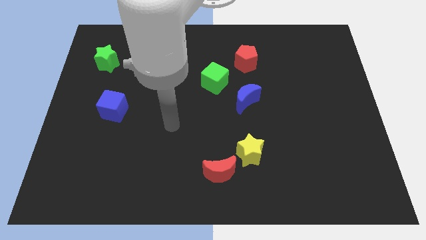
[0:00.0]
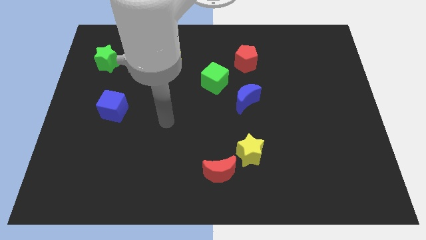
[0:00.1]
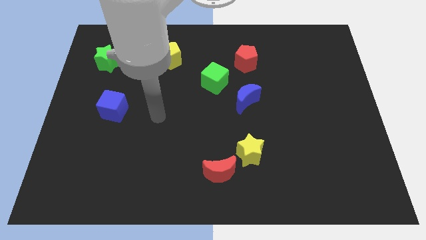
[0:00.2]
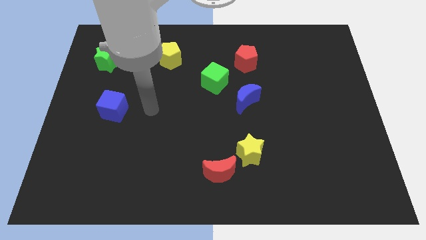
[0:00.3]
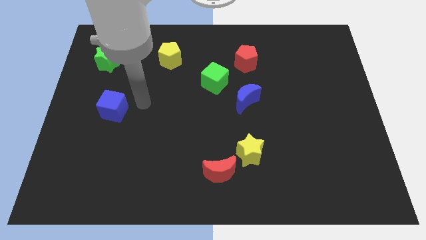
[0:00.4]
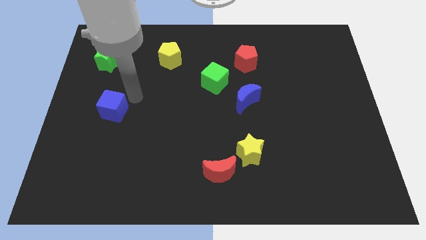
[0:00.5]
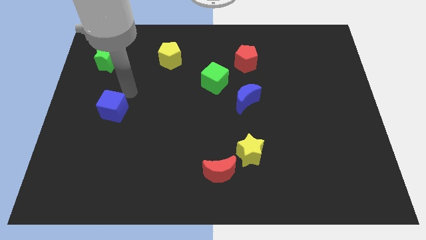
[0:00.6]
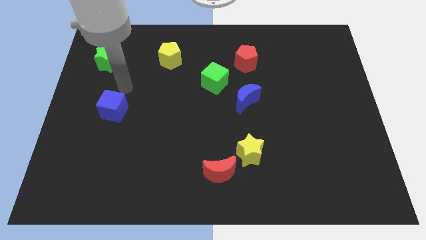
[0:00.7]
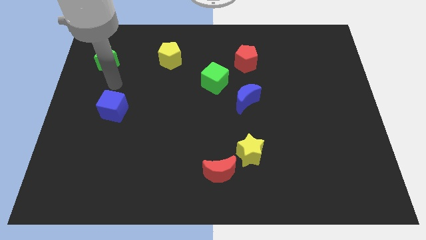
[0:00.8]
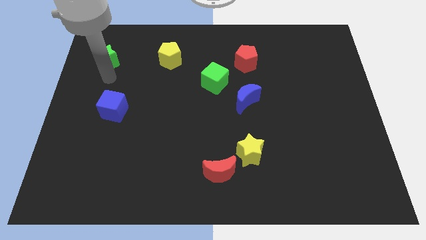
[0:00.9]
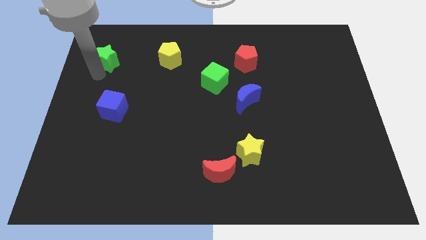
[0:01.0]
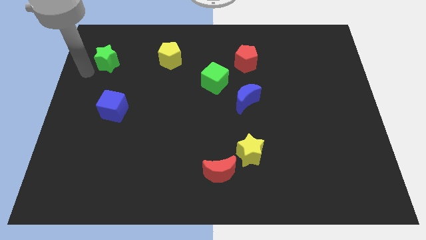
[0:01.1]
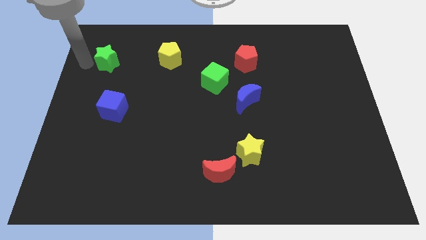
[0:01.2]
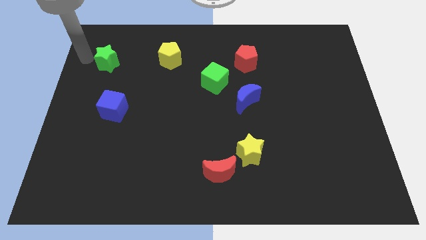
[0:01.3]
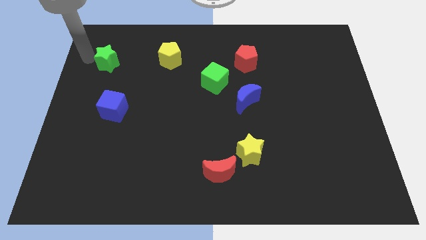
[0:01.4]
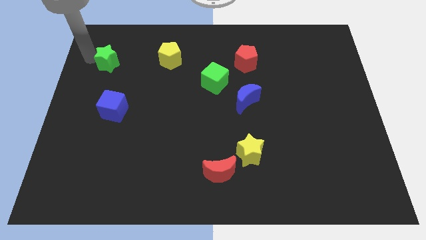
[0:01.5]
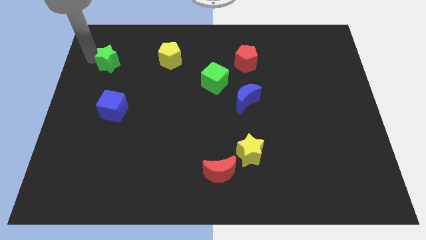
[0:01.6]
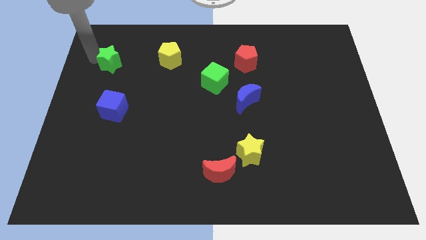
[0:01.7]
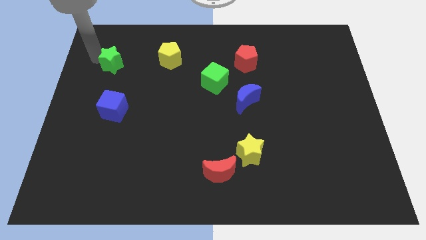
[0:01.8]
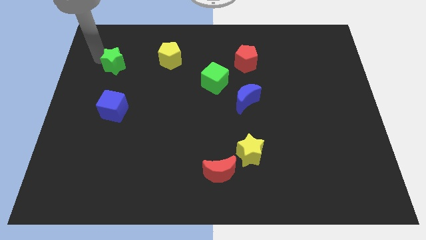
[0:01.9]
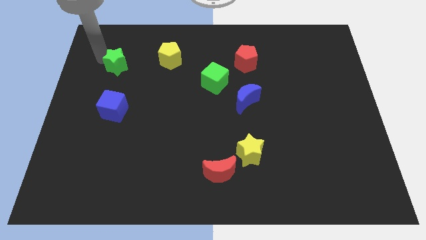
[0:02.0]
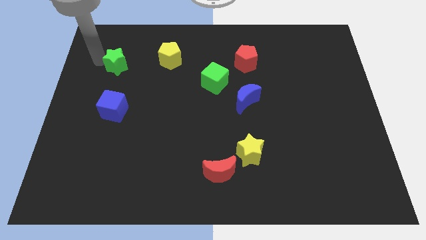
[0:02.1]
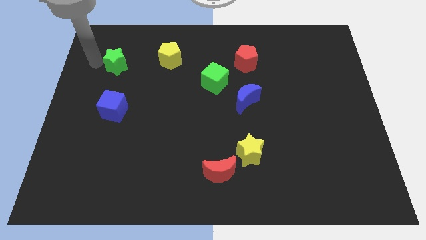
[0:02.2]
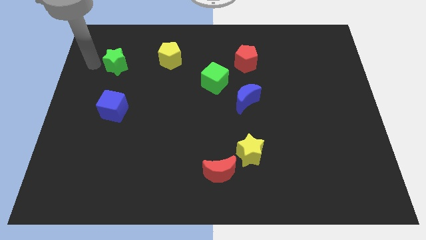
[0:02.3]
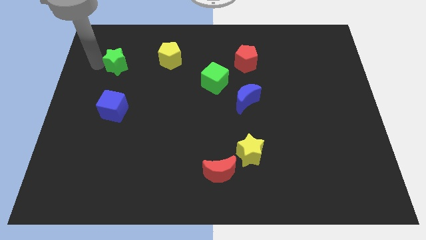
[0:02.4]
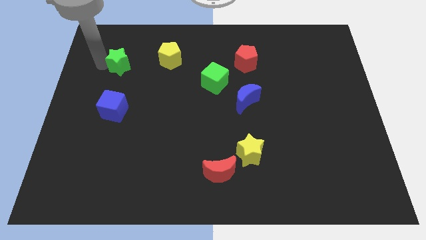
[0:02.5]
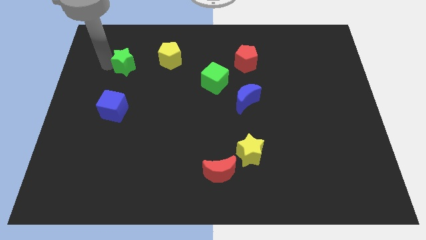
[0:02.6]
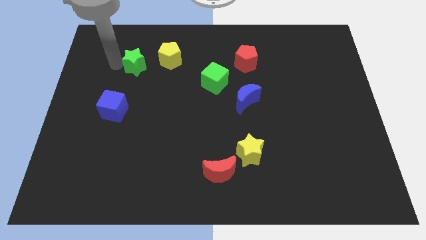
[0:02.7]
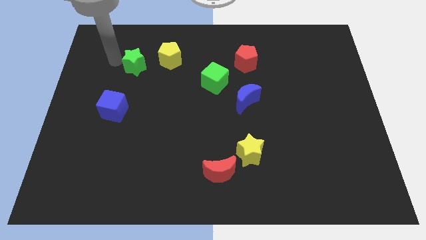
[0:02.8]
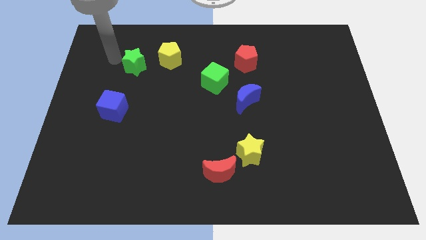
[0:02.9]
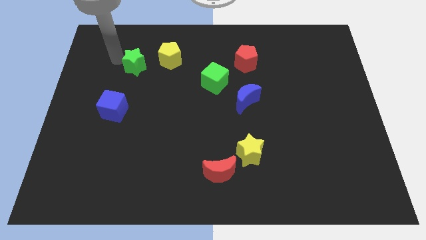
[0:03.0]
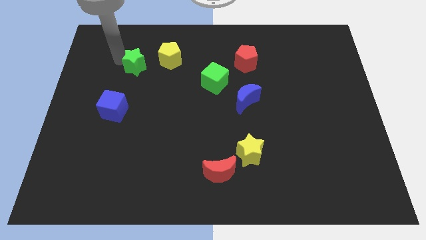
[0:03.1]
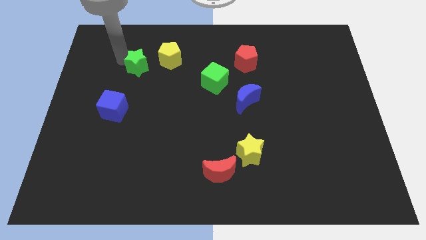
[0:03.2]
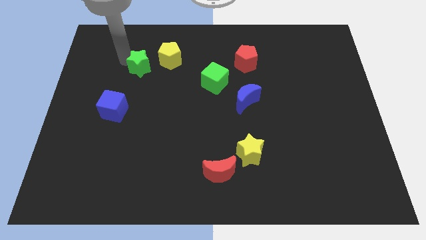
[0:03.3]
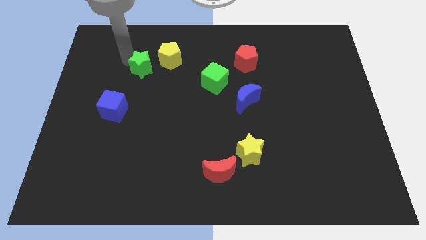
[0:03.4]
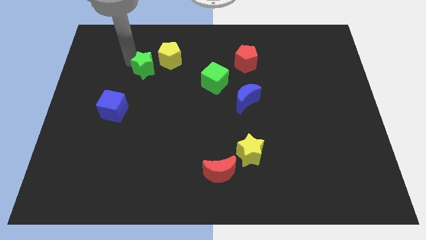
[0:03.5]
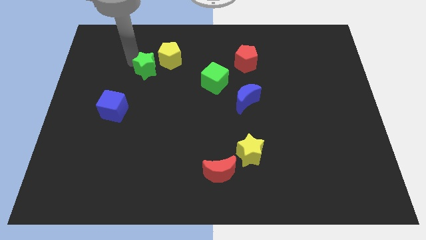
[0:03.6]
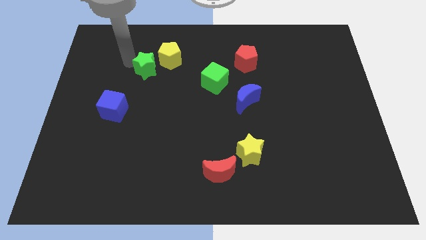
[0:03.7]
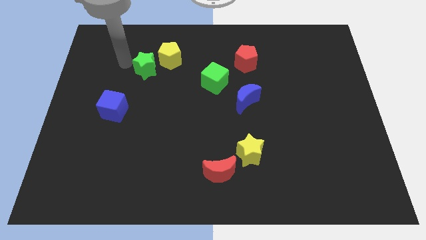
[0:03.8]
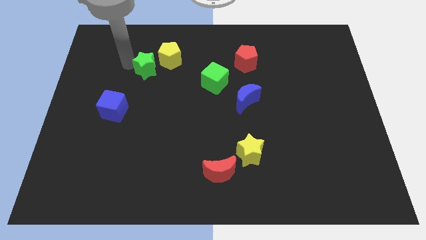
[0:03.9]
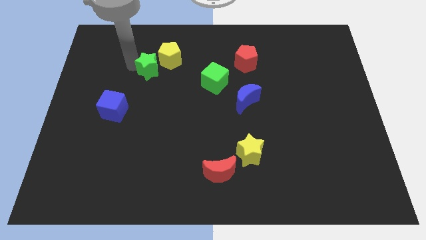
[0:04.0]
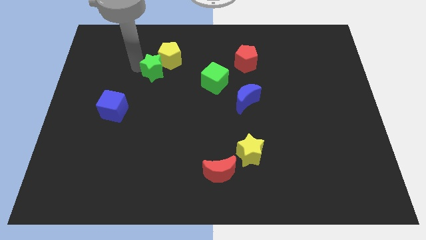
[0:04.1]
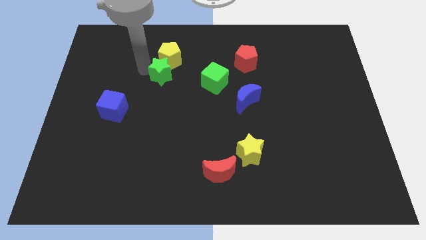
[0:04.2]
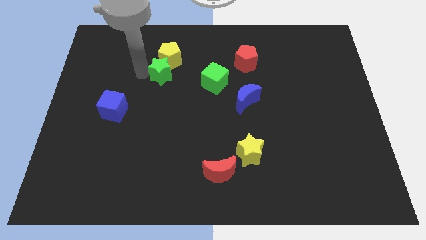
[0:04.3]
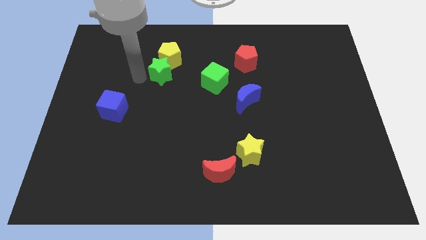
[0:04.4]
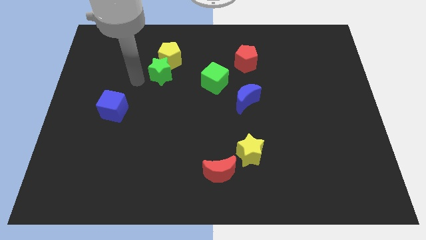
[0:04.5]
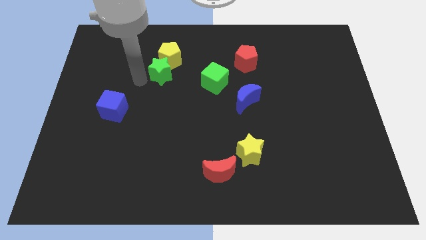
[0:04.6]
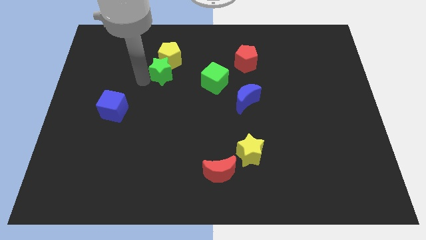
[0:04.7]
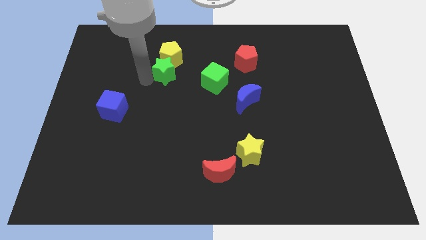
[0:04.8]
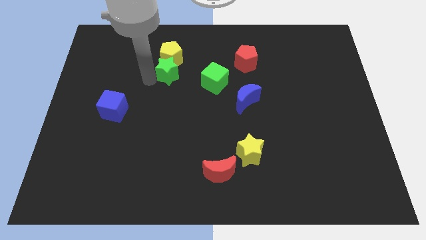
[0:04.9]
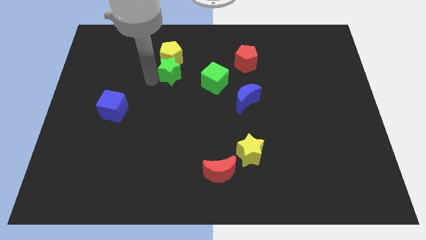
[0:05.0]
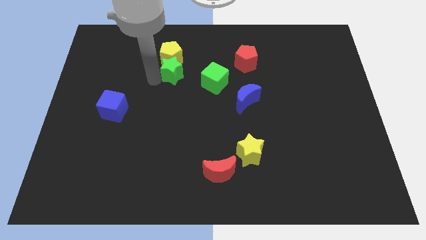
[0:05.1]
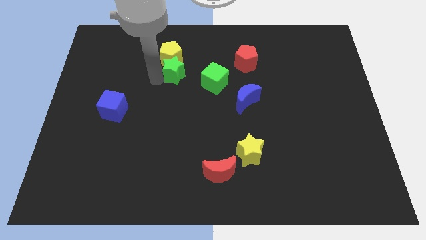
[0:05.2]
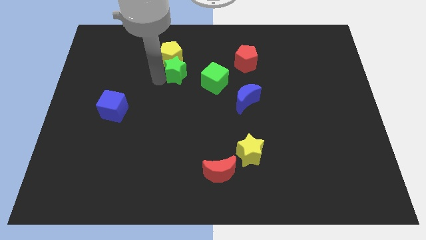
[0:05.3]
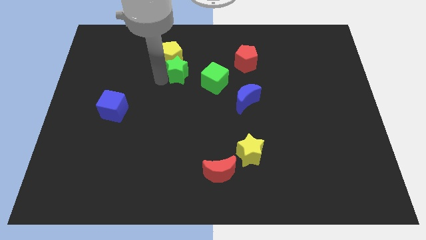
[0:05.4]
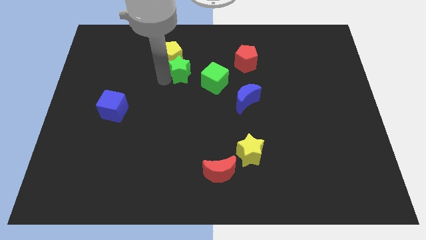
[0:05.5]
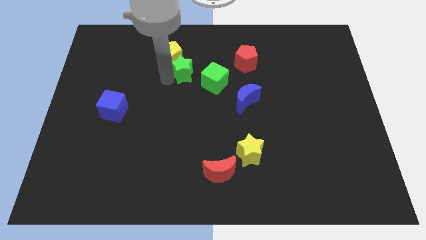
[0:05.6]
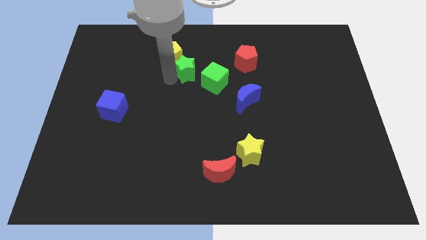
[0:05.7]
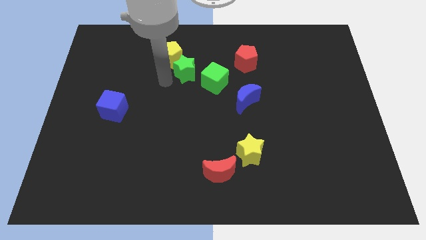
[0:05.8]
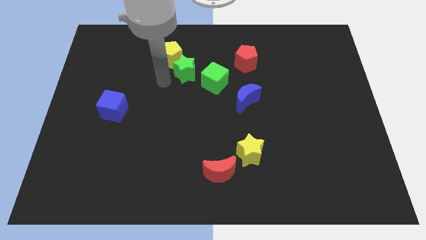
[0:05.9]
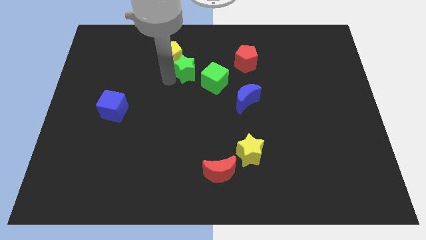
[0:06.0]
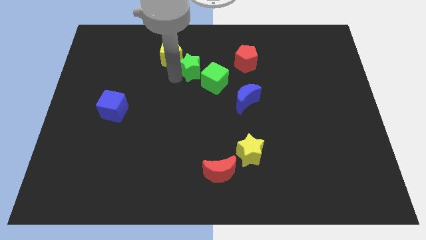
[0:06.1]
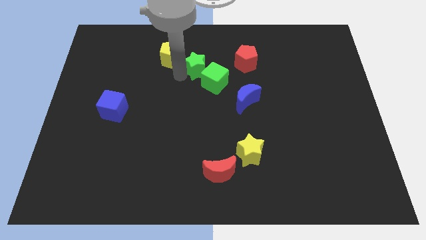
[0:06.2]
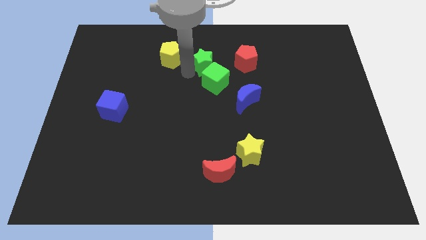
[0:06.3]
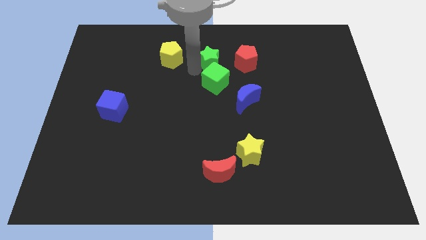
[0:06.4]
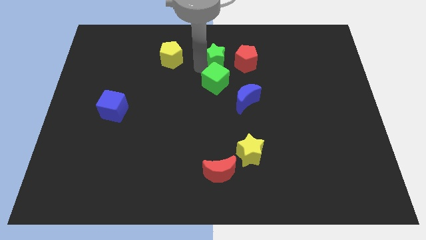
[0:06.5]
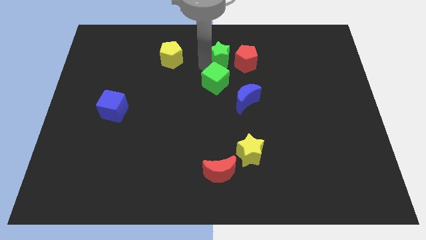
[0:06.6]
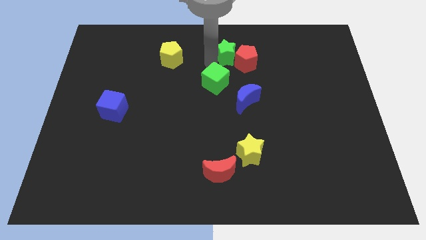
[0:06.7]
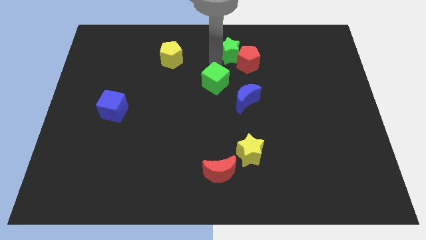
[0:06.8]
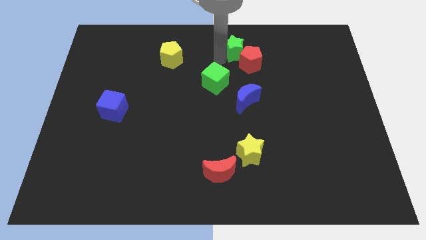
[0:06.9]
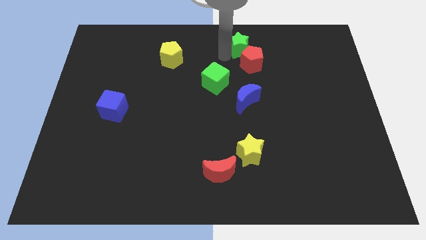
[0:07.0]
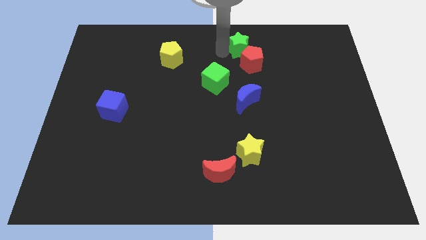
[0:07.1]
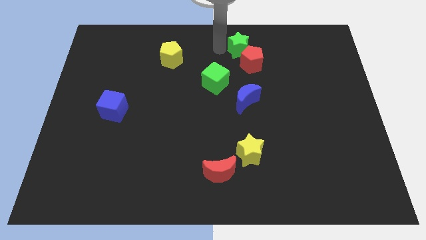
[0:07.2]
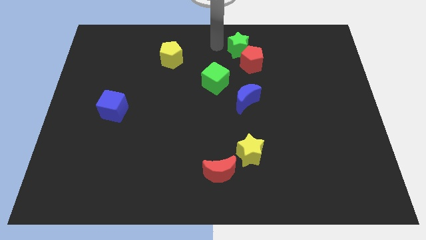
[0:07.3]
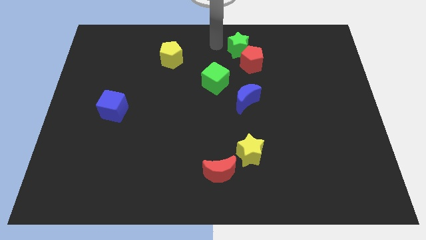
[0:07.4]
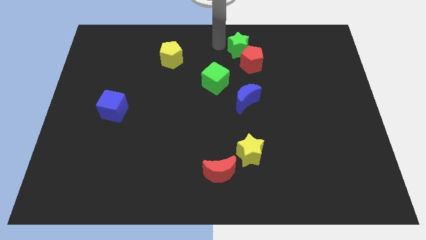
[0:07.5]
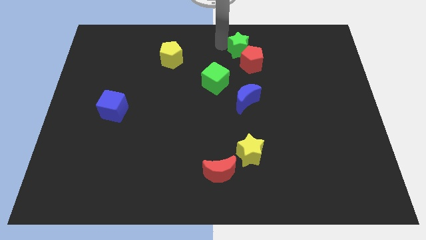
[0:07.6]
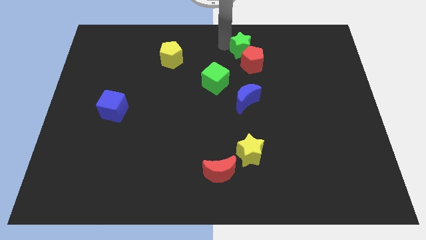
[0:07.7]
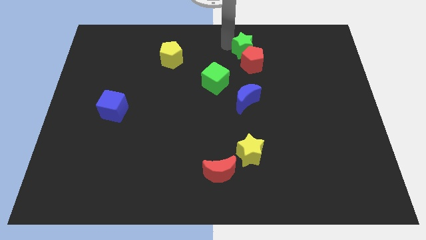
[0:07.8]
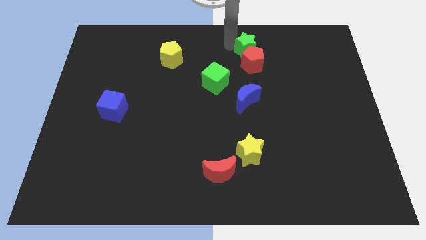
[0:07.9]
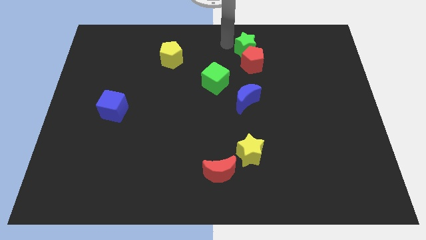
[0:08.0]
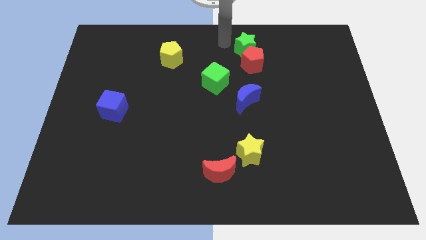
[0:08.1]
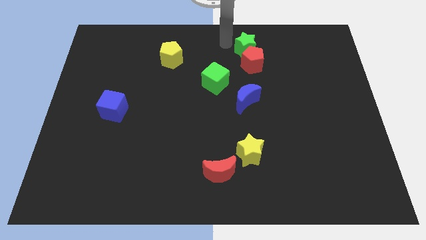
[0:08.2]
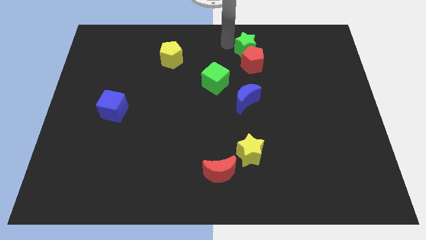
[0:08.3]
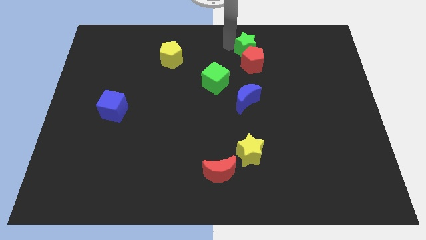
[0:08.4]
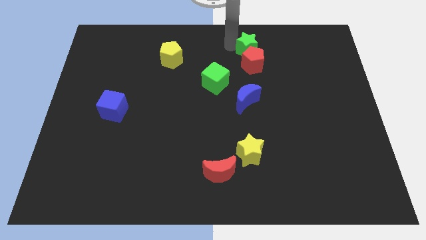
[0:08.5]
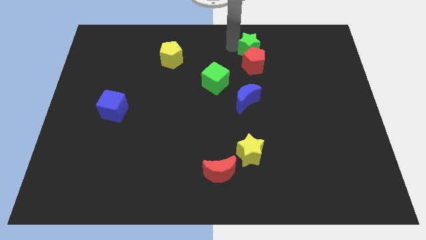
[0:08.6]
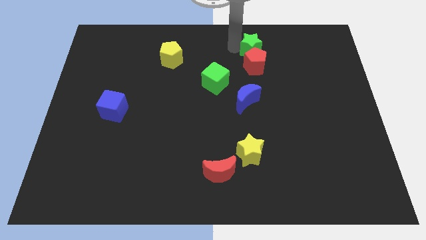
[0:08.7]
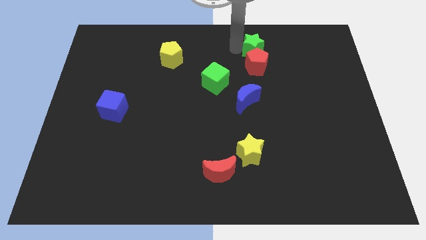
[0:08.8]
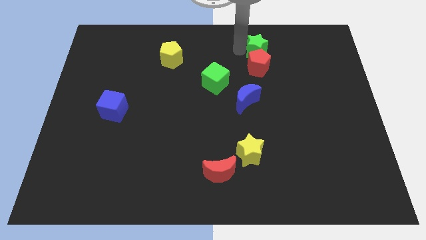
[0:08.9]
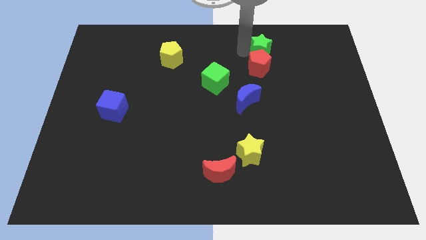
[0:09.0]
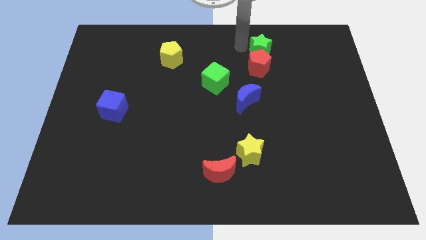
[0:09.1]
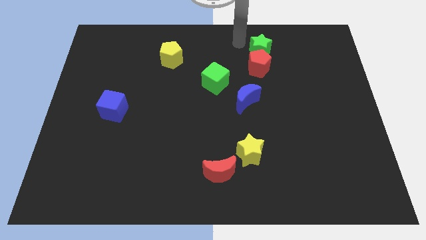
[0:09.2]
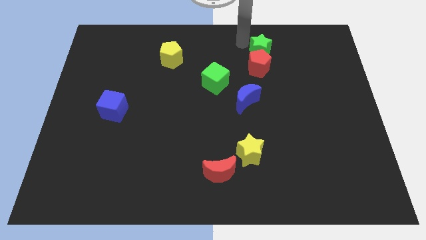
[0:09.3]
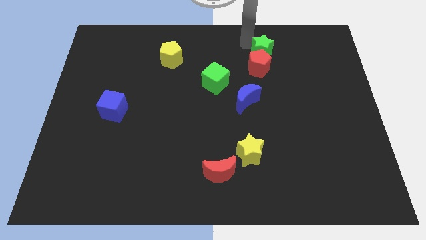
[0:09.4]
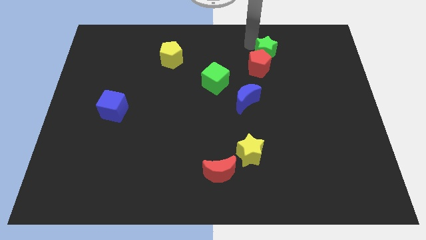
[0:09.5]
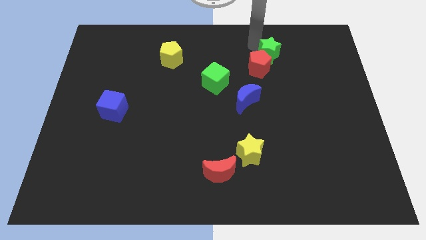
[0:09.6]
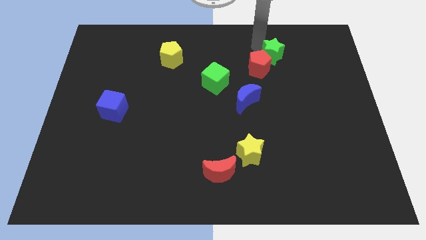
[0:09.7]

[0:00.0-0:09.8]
move the green star just right of the red pentagon
